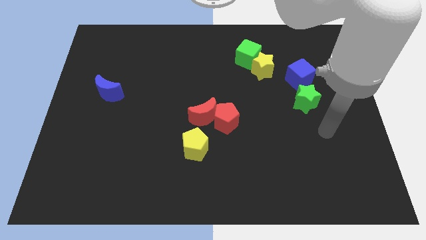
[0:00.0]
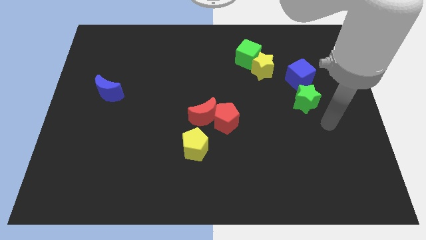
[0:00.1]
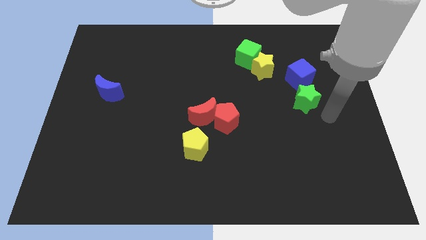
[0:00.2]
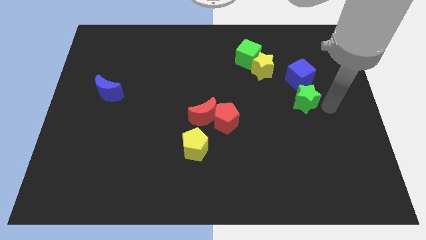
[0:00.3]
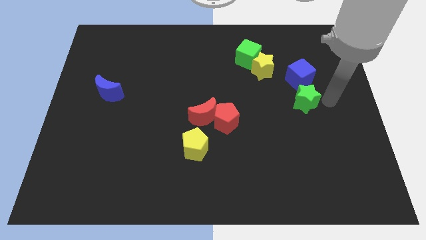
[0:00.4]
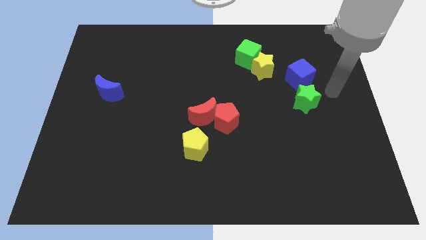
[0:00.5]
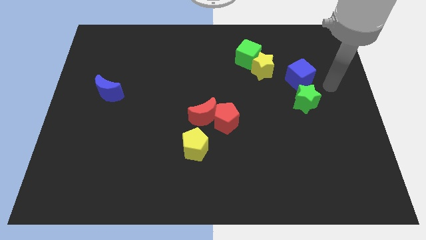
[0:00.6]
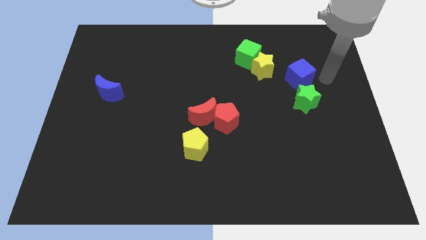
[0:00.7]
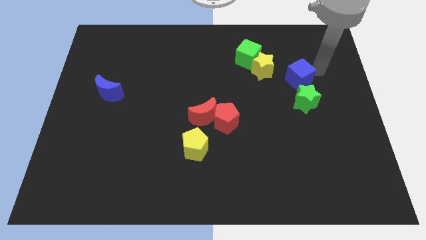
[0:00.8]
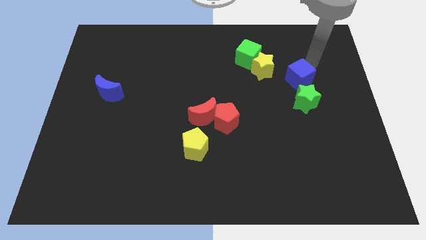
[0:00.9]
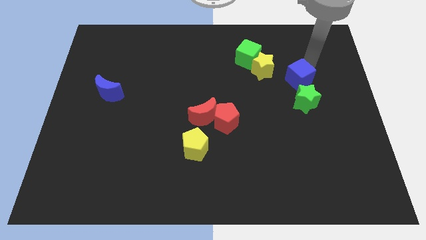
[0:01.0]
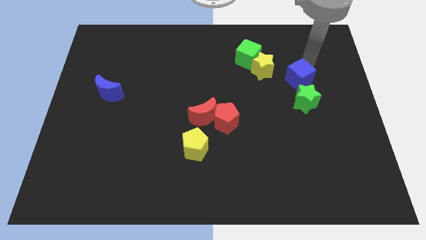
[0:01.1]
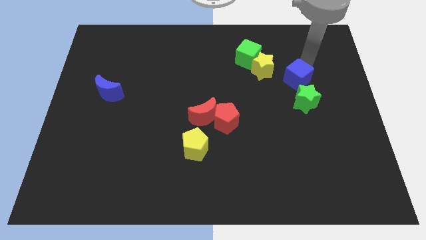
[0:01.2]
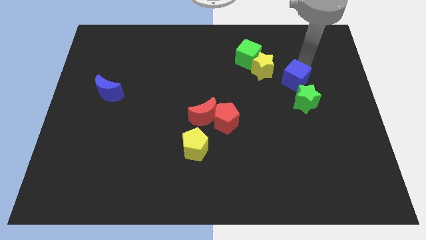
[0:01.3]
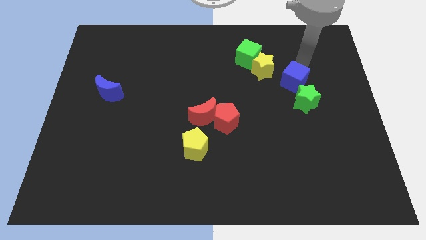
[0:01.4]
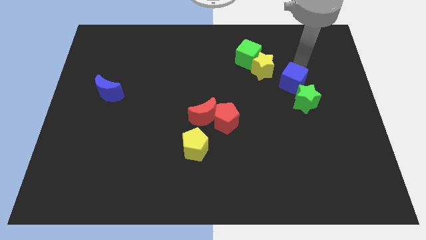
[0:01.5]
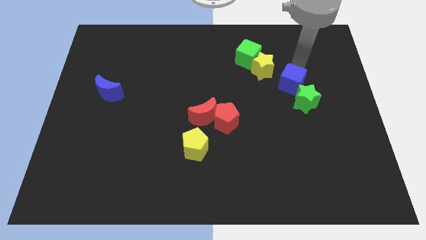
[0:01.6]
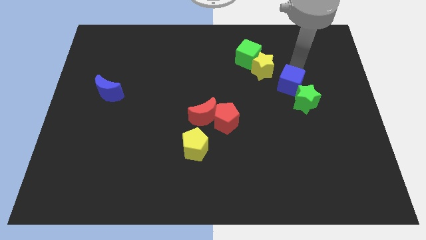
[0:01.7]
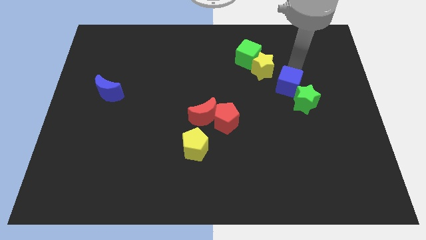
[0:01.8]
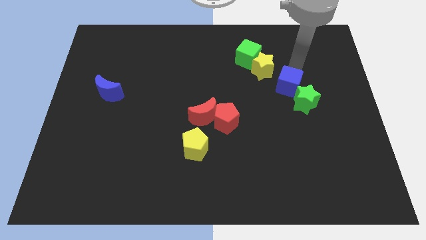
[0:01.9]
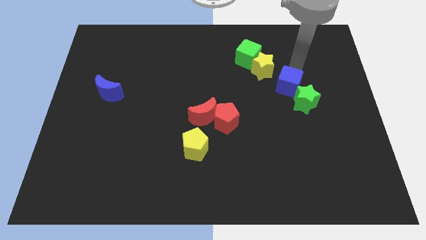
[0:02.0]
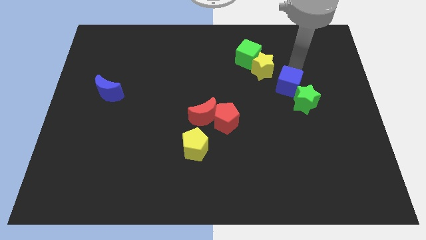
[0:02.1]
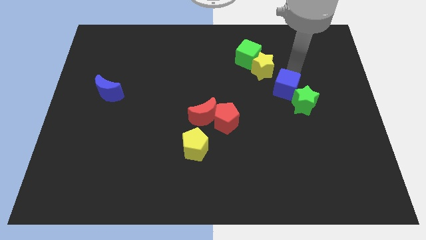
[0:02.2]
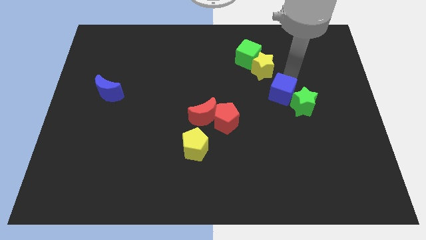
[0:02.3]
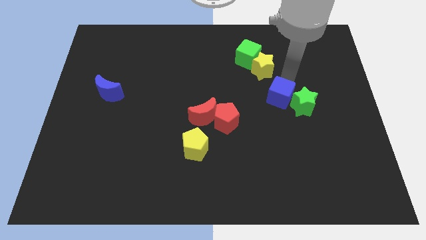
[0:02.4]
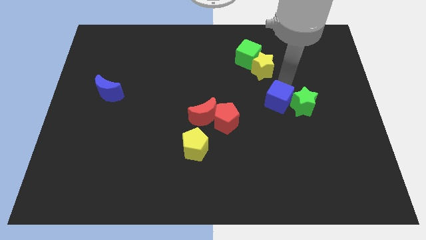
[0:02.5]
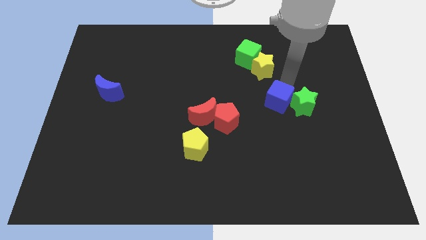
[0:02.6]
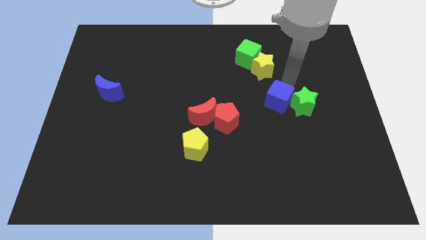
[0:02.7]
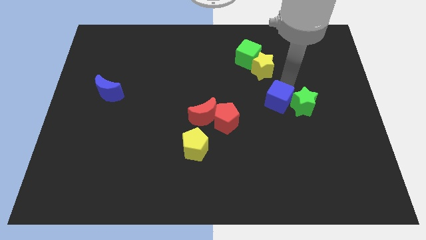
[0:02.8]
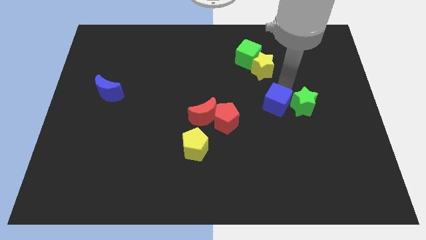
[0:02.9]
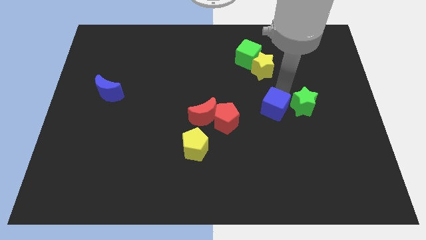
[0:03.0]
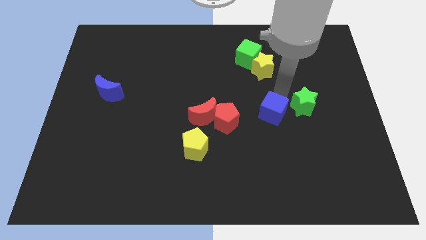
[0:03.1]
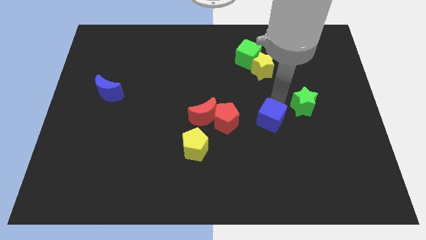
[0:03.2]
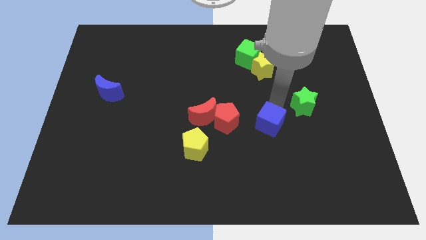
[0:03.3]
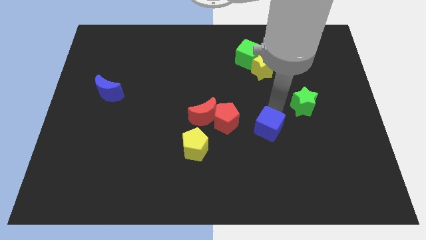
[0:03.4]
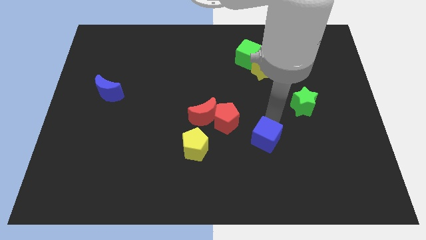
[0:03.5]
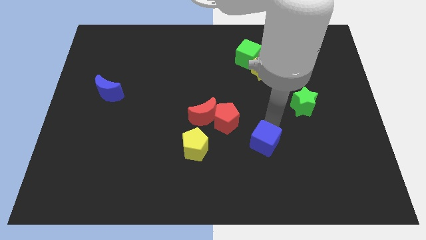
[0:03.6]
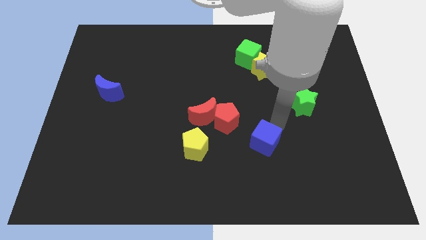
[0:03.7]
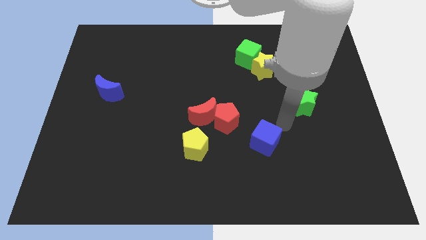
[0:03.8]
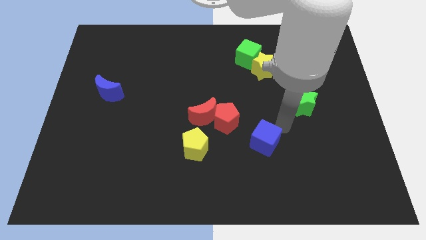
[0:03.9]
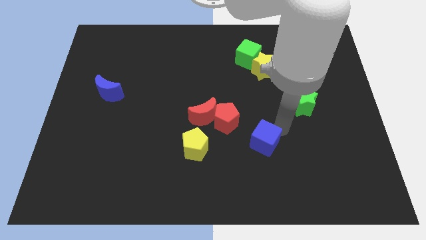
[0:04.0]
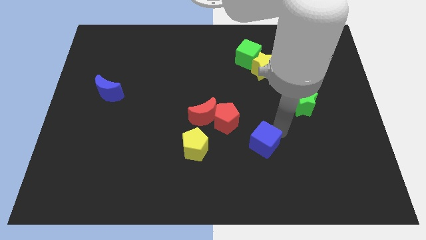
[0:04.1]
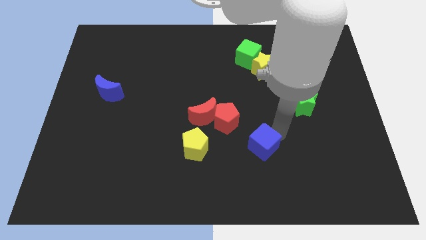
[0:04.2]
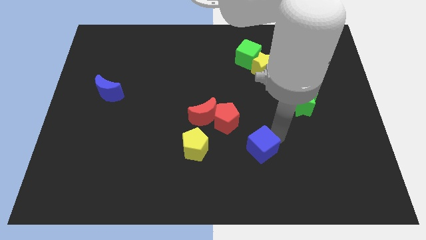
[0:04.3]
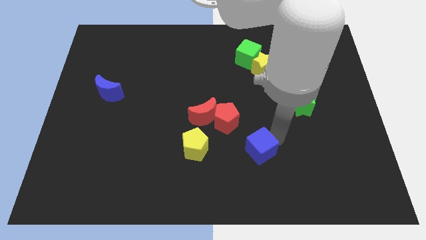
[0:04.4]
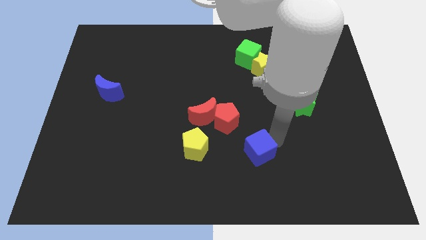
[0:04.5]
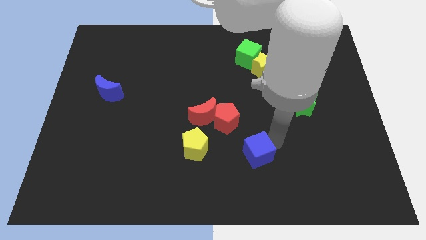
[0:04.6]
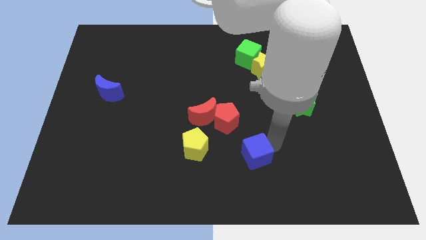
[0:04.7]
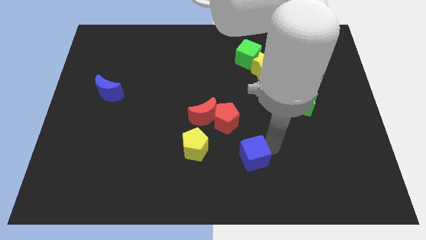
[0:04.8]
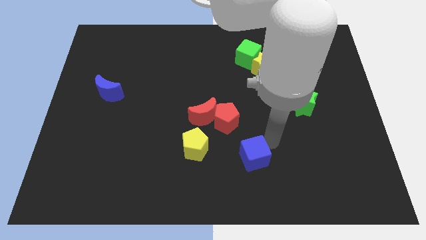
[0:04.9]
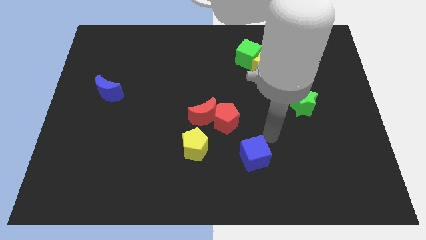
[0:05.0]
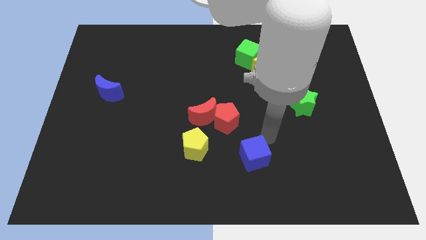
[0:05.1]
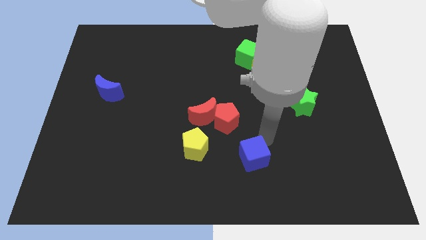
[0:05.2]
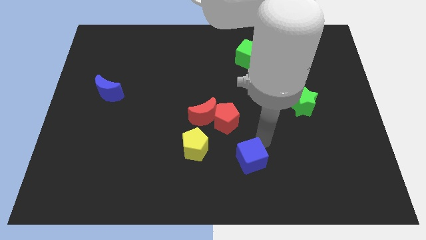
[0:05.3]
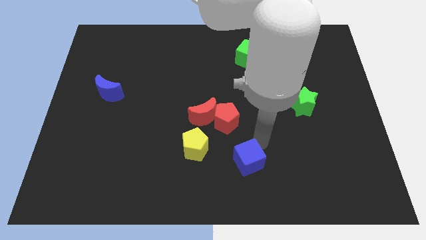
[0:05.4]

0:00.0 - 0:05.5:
put the blue cube to the bottom side

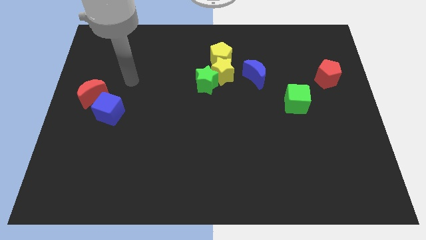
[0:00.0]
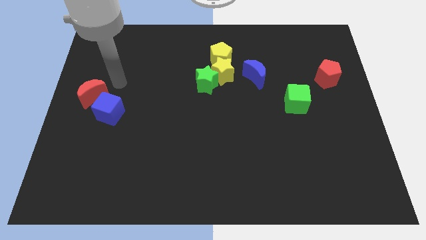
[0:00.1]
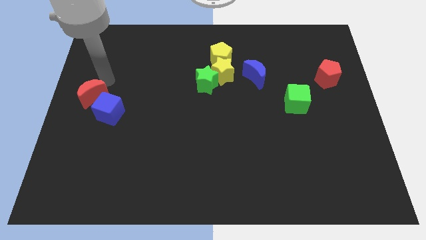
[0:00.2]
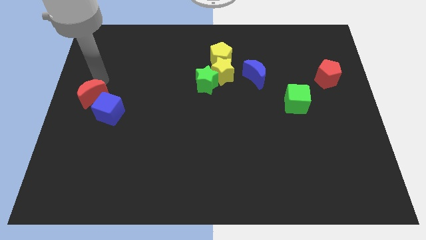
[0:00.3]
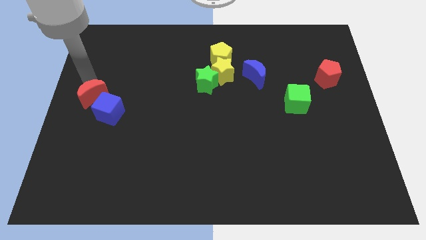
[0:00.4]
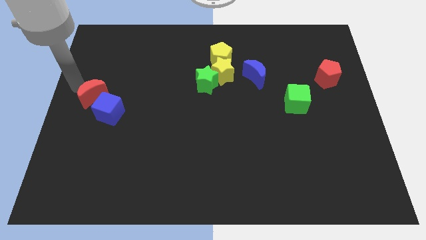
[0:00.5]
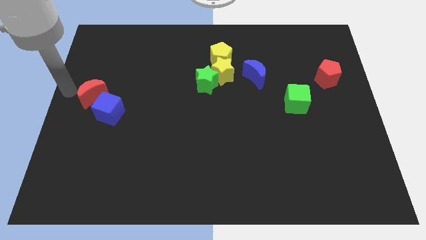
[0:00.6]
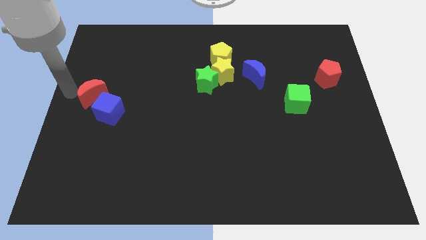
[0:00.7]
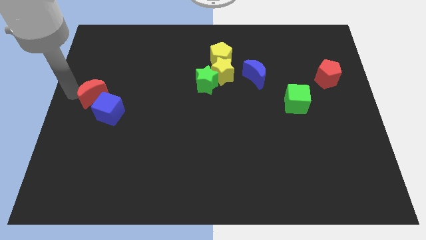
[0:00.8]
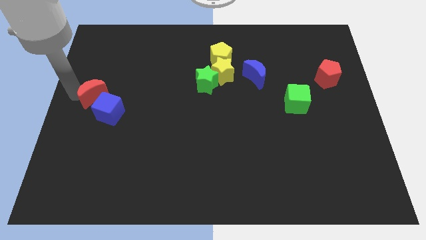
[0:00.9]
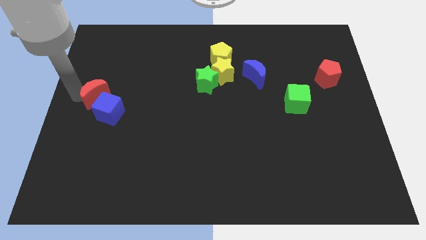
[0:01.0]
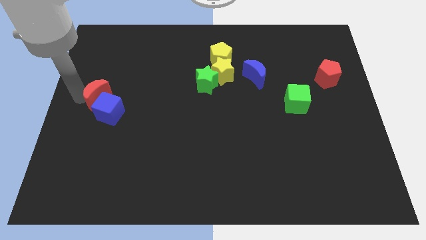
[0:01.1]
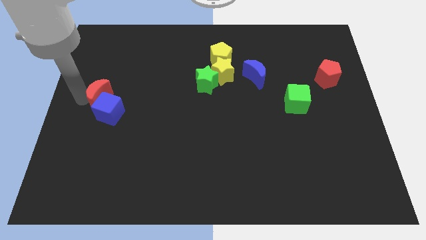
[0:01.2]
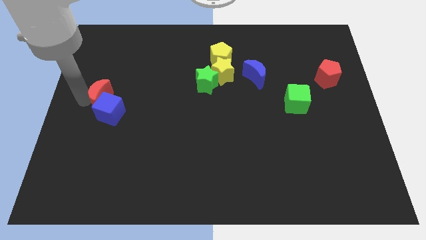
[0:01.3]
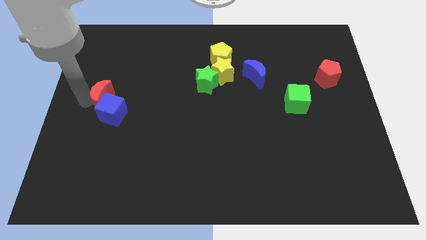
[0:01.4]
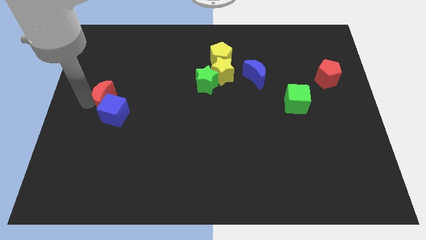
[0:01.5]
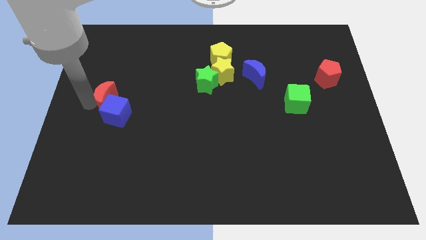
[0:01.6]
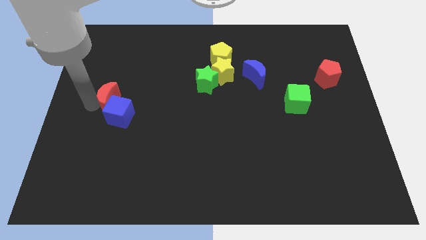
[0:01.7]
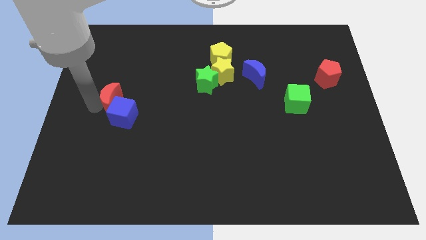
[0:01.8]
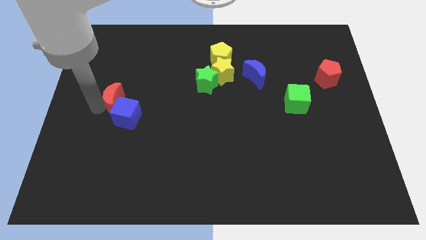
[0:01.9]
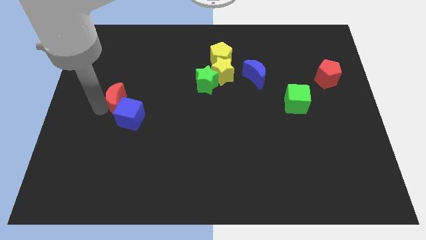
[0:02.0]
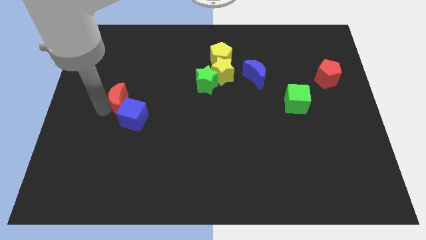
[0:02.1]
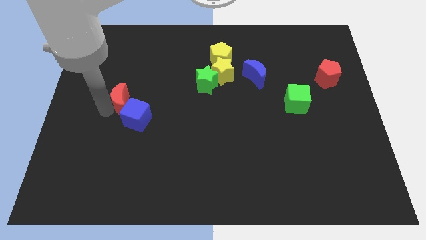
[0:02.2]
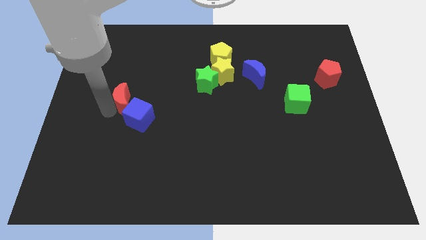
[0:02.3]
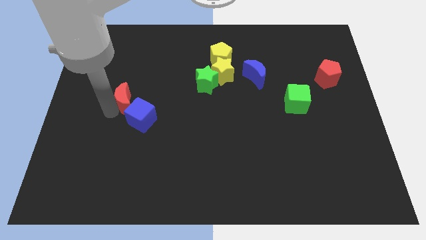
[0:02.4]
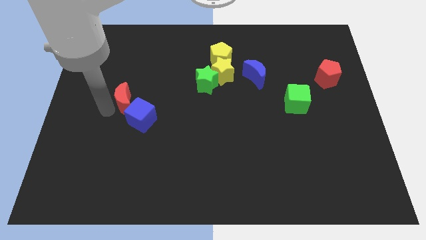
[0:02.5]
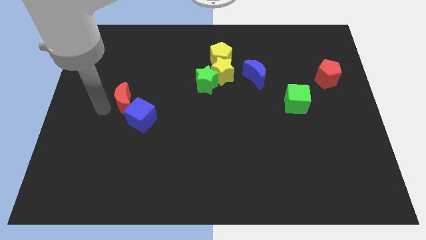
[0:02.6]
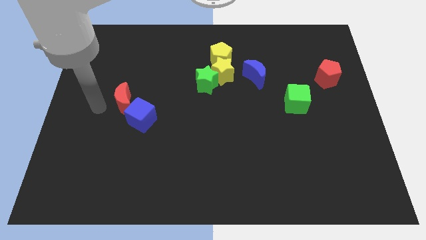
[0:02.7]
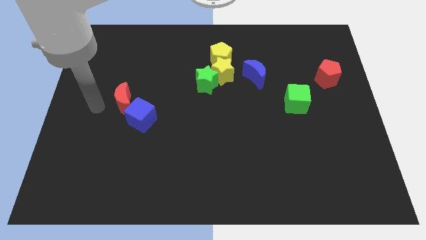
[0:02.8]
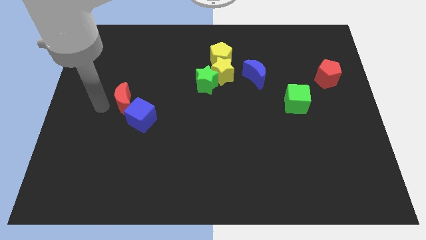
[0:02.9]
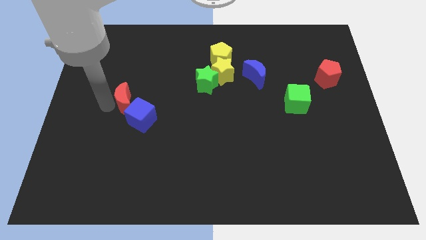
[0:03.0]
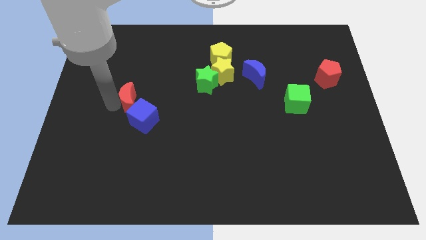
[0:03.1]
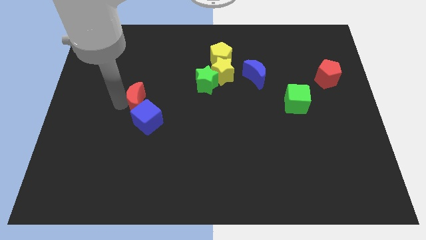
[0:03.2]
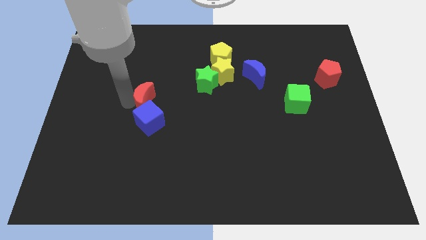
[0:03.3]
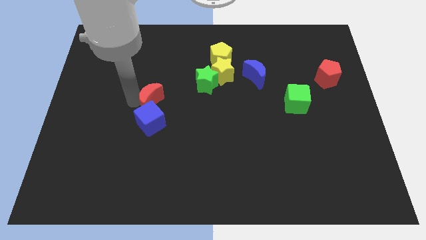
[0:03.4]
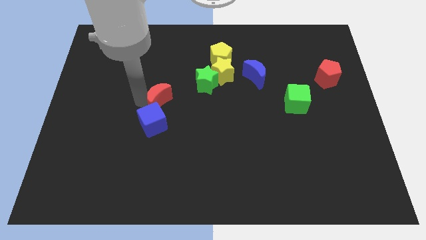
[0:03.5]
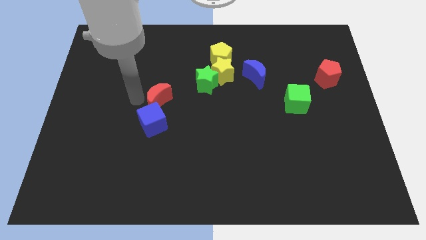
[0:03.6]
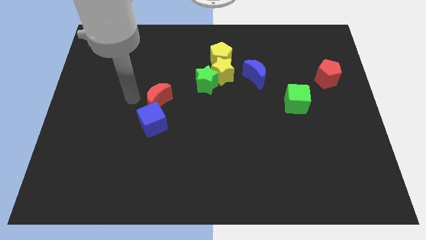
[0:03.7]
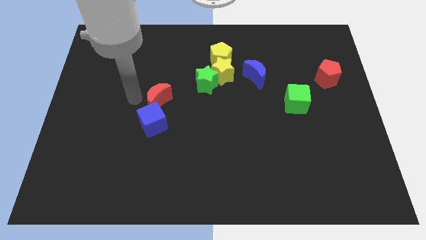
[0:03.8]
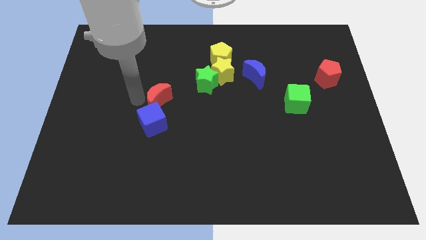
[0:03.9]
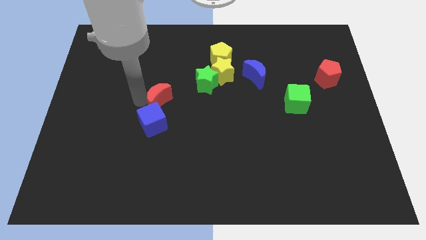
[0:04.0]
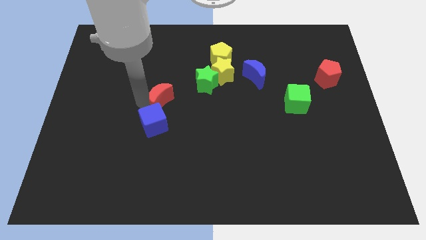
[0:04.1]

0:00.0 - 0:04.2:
push the red moon to the middle of the board
